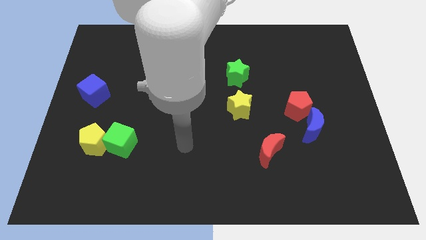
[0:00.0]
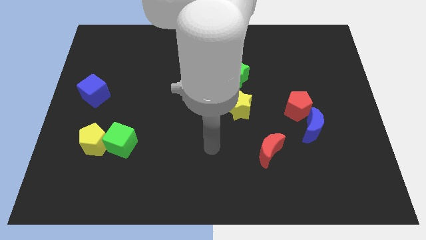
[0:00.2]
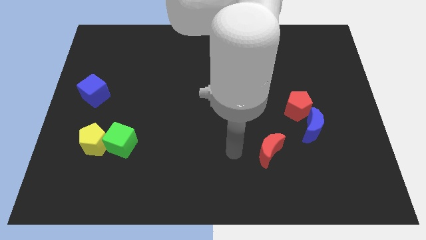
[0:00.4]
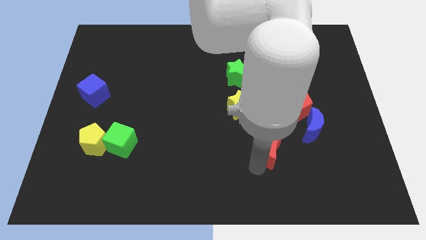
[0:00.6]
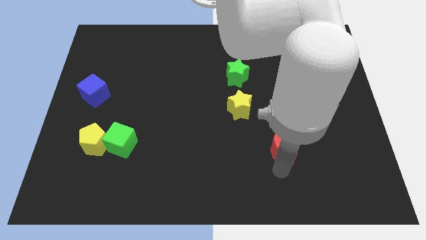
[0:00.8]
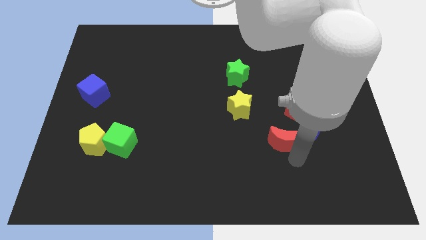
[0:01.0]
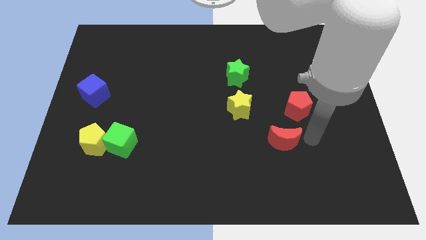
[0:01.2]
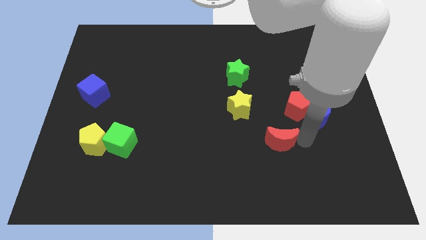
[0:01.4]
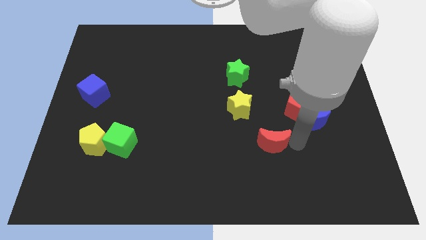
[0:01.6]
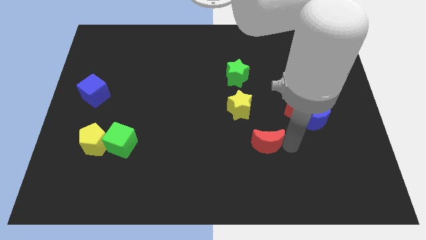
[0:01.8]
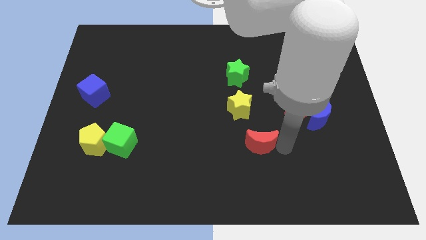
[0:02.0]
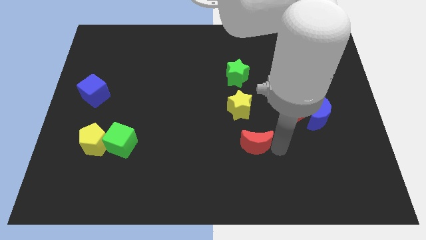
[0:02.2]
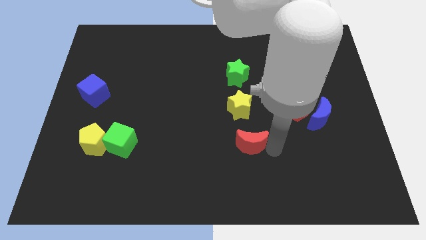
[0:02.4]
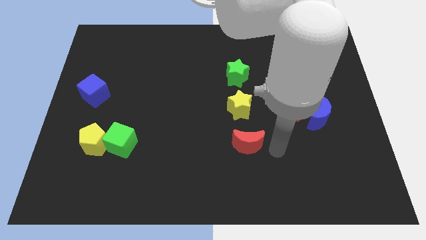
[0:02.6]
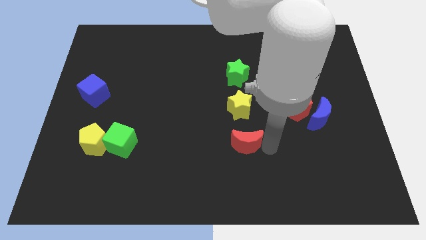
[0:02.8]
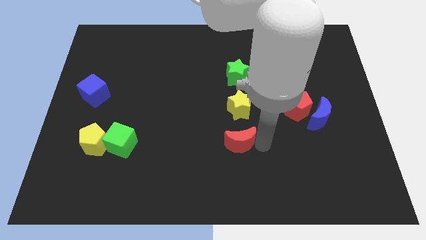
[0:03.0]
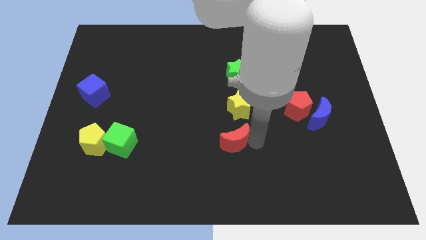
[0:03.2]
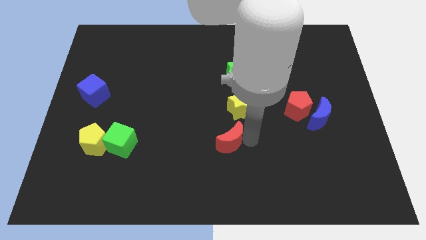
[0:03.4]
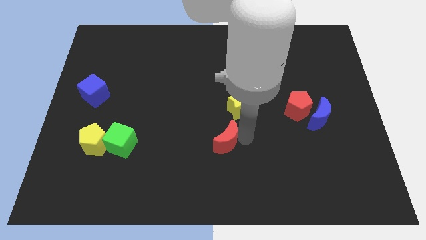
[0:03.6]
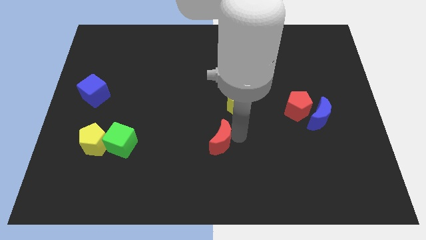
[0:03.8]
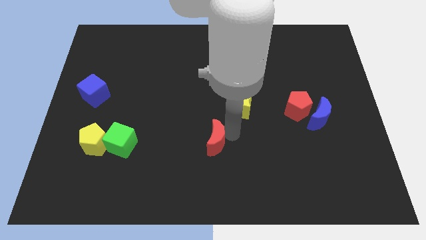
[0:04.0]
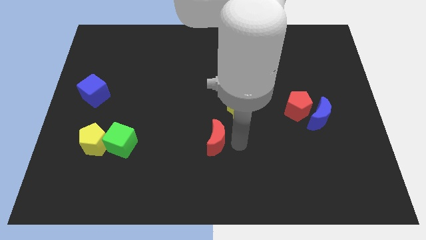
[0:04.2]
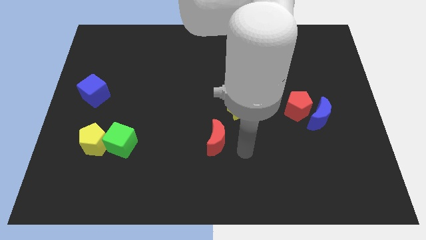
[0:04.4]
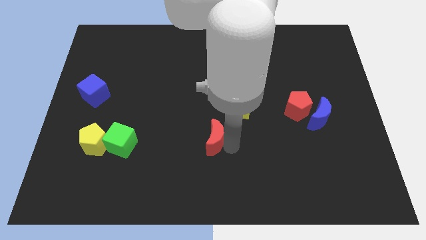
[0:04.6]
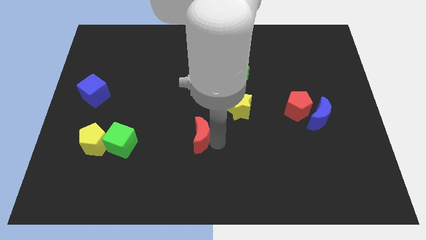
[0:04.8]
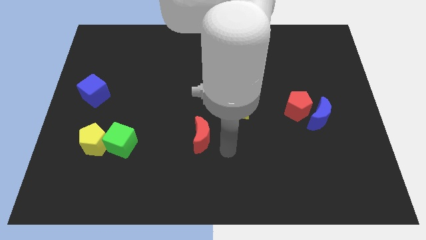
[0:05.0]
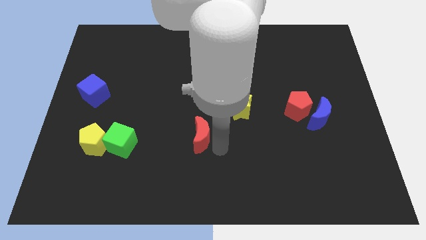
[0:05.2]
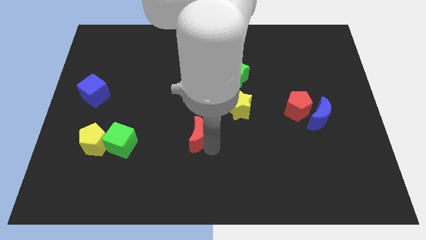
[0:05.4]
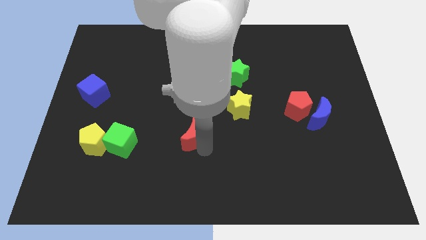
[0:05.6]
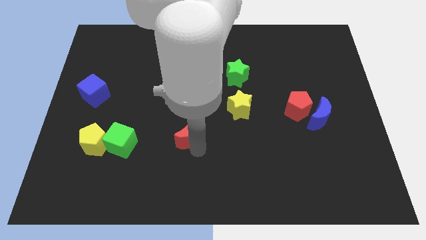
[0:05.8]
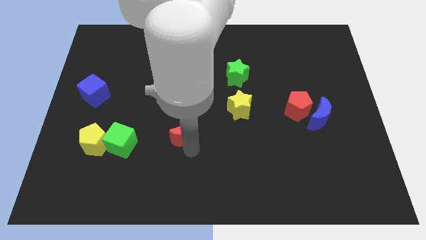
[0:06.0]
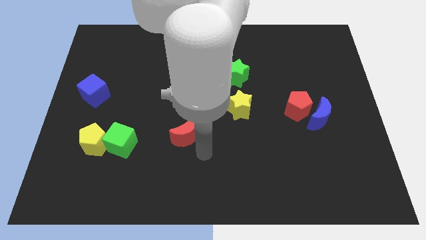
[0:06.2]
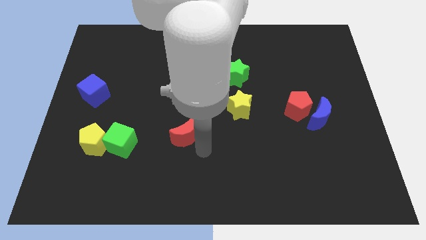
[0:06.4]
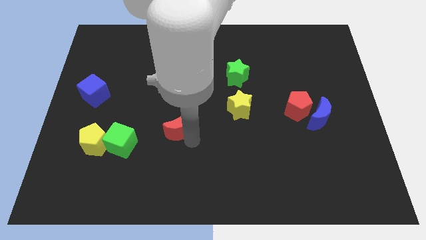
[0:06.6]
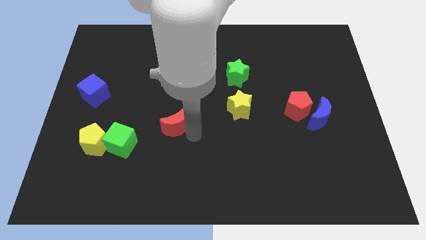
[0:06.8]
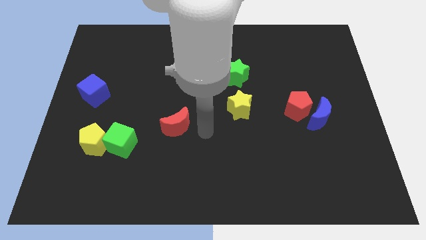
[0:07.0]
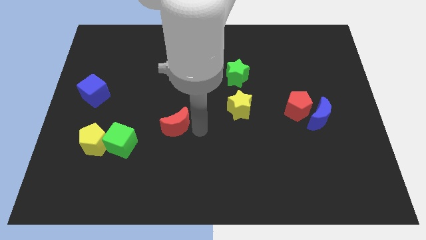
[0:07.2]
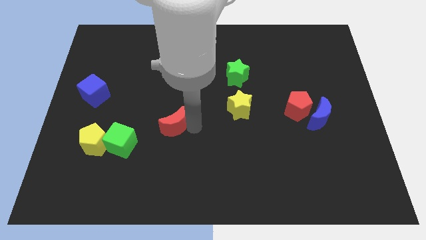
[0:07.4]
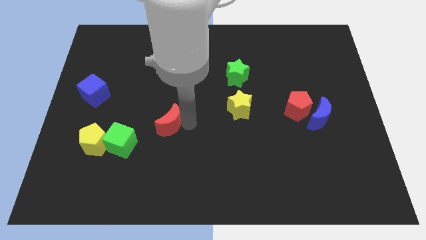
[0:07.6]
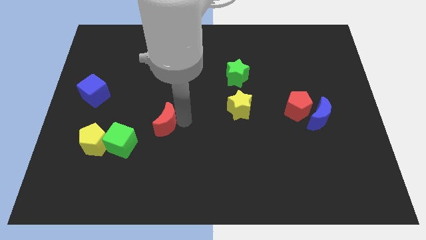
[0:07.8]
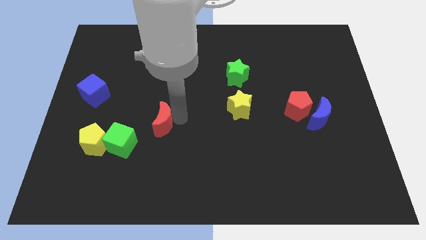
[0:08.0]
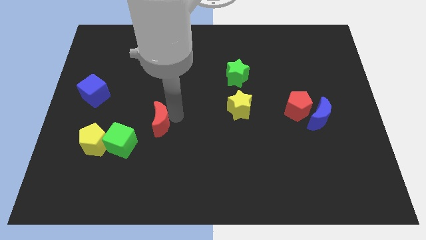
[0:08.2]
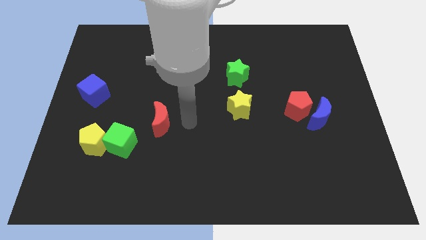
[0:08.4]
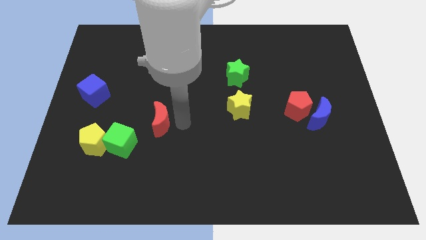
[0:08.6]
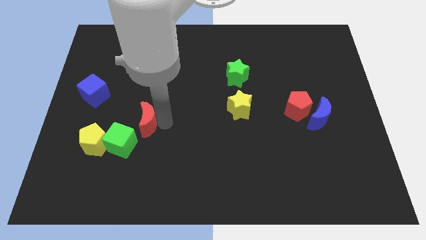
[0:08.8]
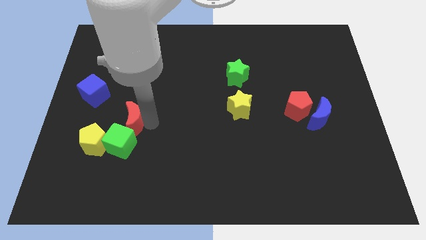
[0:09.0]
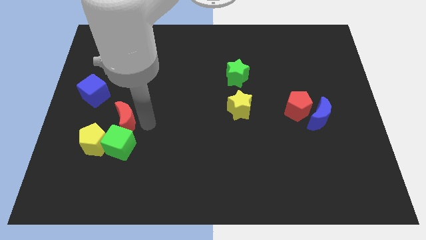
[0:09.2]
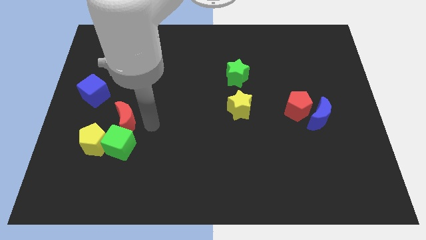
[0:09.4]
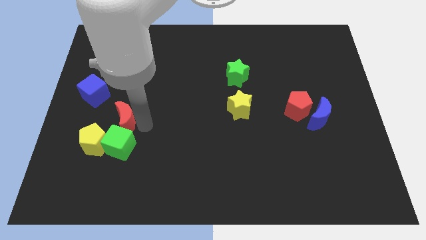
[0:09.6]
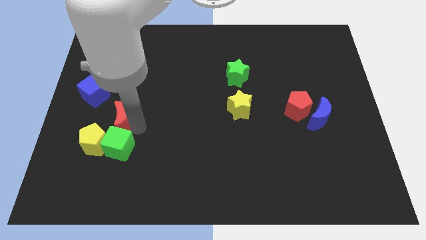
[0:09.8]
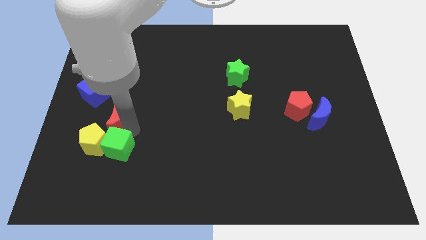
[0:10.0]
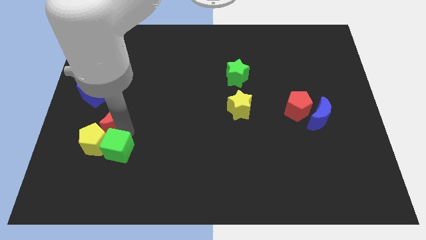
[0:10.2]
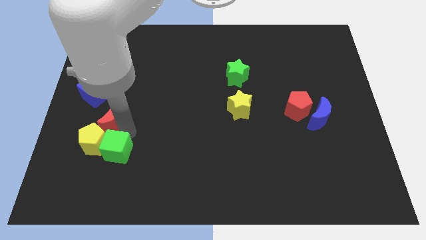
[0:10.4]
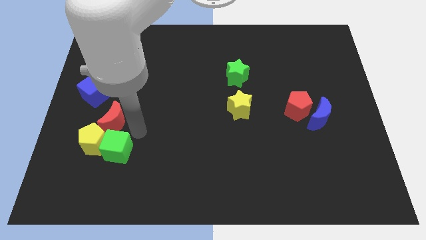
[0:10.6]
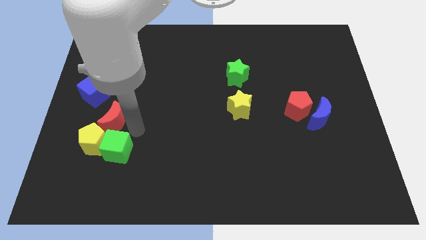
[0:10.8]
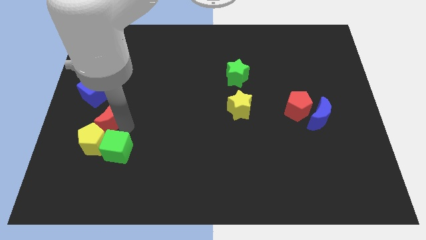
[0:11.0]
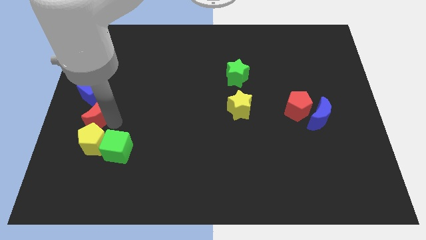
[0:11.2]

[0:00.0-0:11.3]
push the red moon to the left side of the board

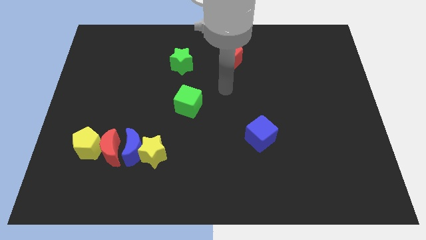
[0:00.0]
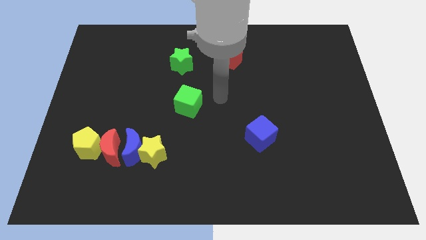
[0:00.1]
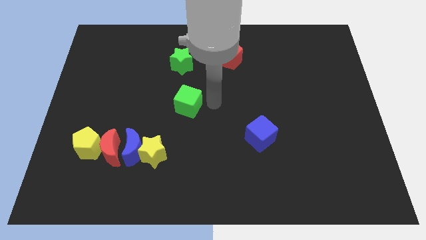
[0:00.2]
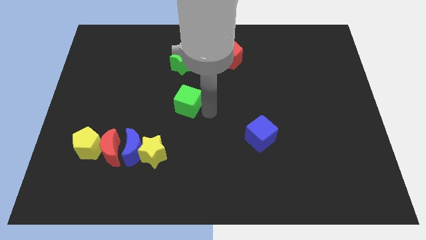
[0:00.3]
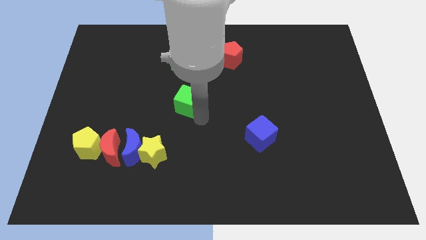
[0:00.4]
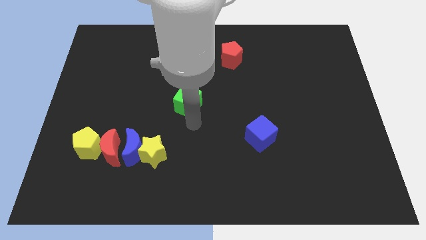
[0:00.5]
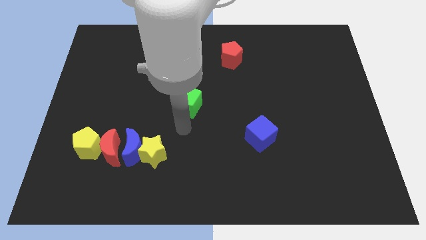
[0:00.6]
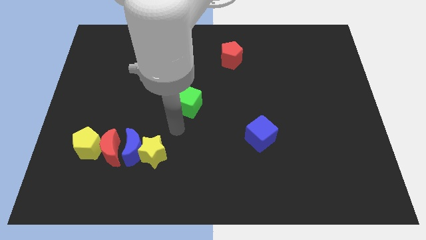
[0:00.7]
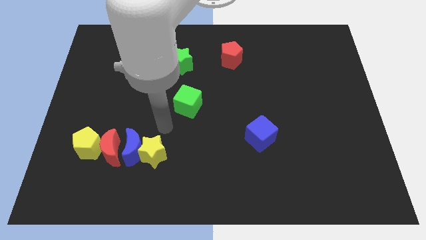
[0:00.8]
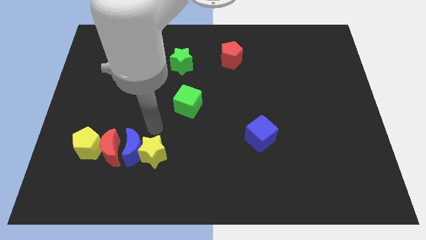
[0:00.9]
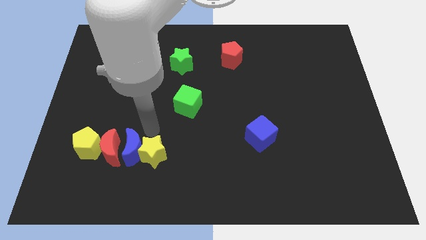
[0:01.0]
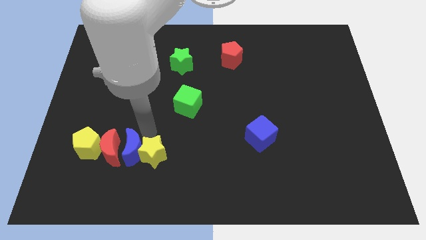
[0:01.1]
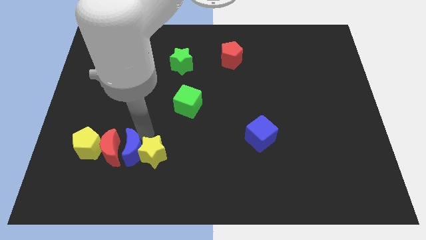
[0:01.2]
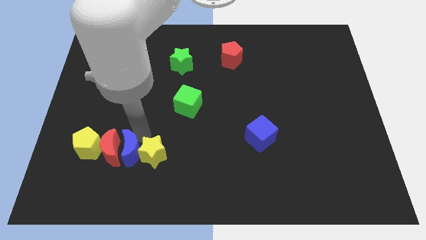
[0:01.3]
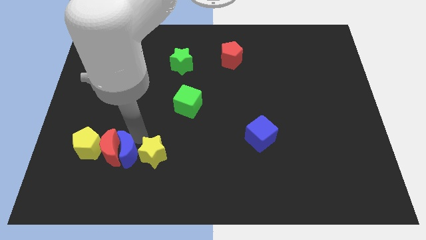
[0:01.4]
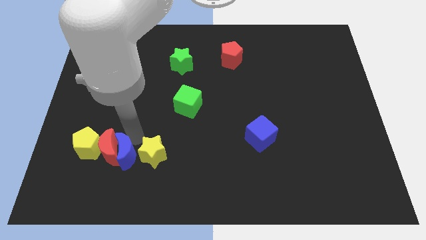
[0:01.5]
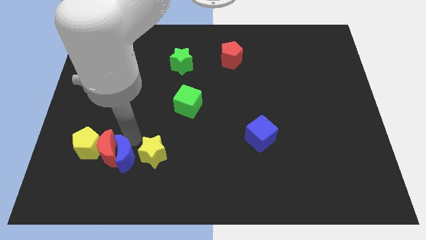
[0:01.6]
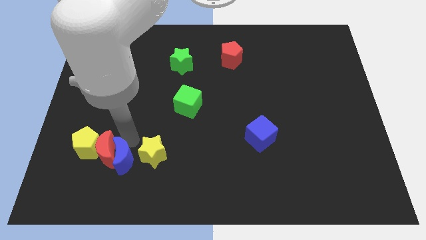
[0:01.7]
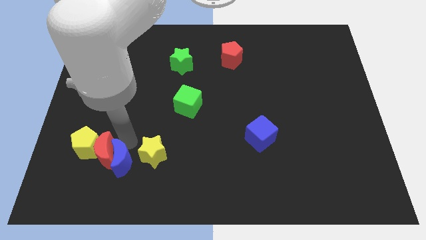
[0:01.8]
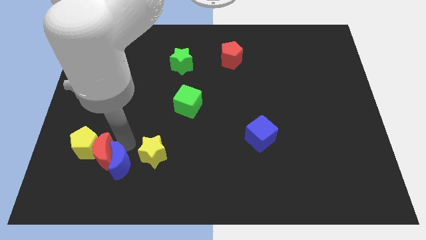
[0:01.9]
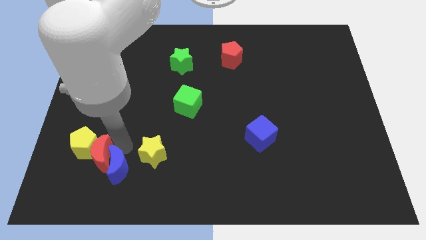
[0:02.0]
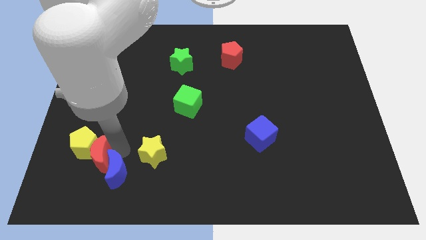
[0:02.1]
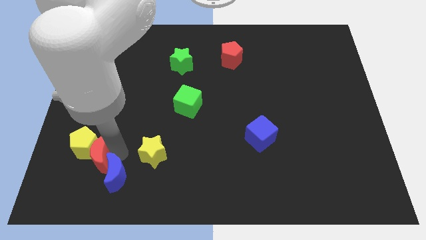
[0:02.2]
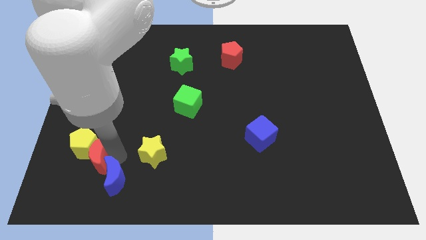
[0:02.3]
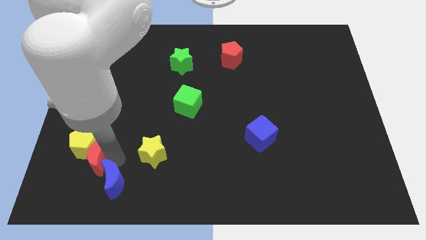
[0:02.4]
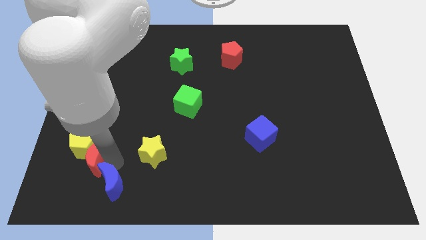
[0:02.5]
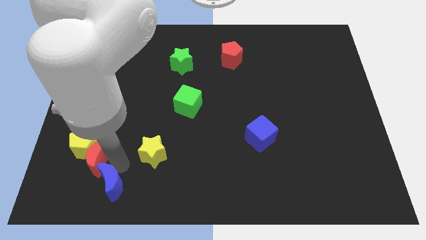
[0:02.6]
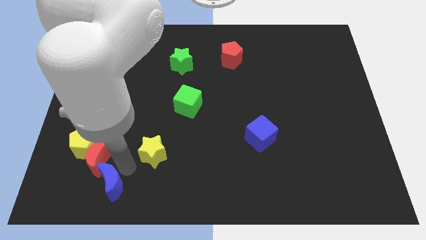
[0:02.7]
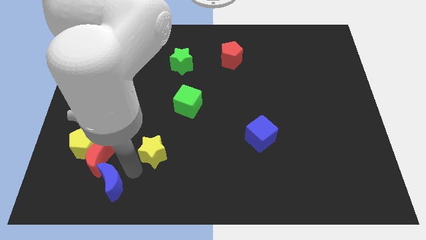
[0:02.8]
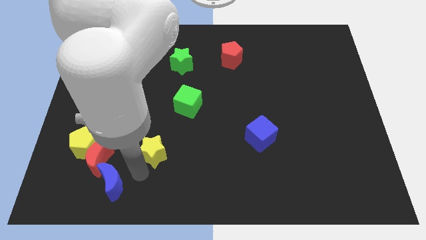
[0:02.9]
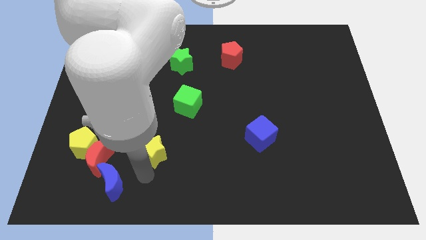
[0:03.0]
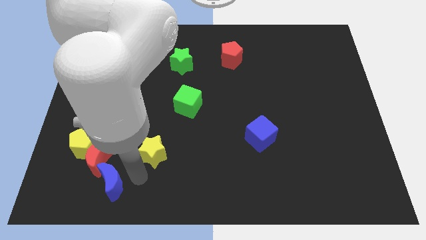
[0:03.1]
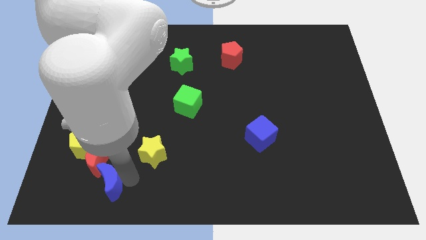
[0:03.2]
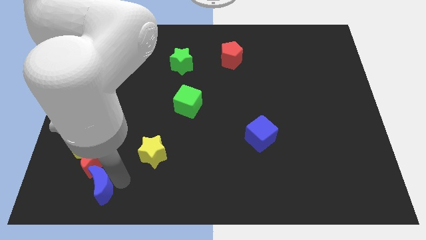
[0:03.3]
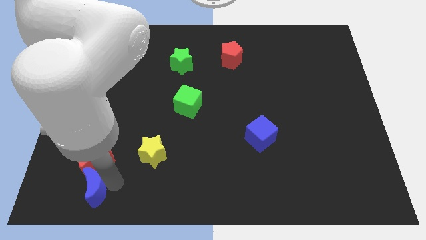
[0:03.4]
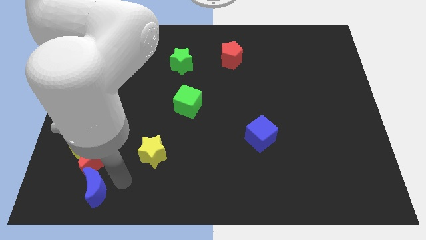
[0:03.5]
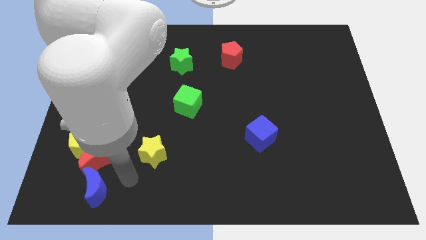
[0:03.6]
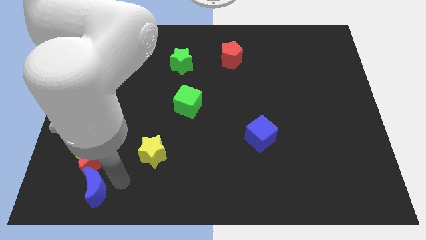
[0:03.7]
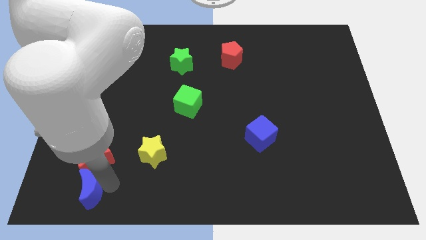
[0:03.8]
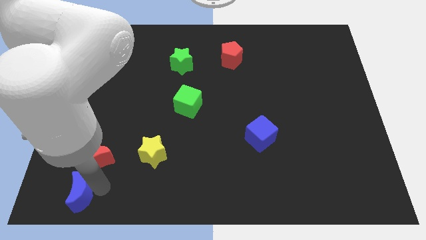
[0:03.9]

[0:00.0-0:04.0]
move the blue moon to the lower left corner
